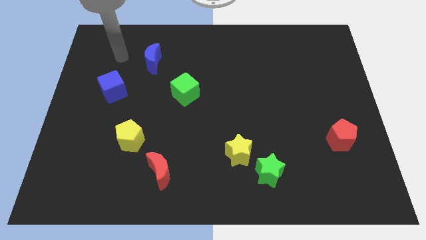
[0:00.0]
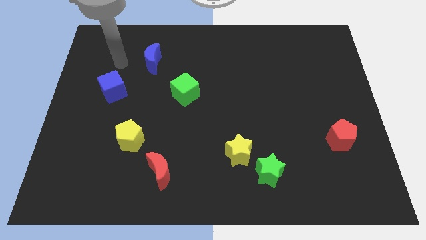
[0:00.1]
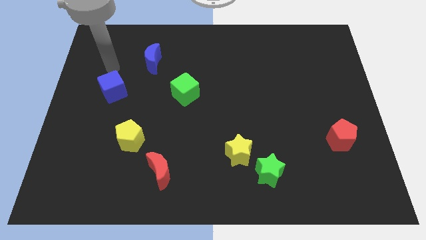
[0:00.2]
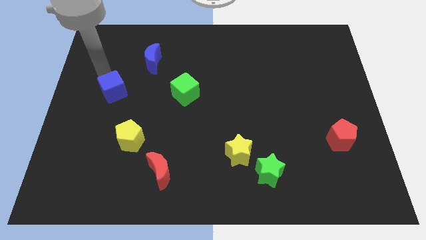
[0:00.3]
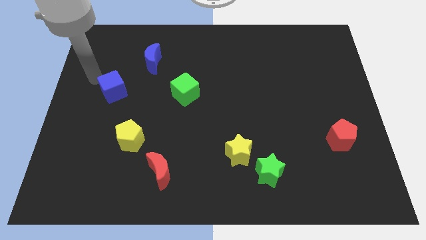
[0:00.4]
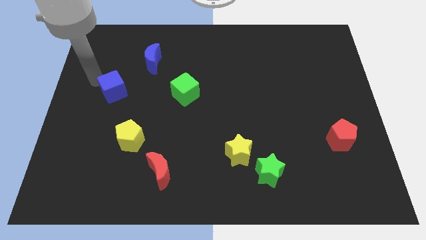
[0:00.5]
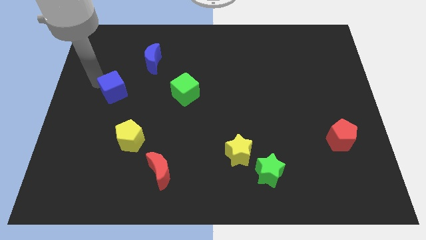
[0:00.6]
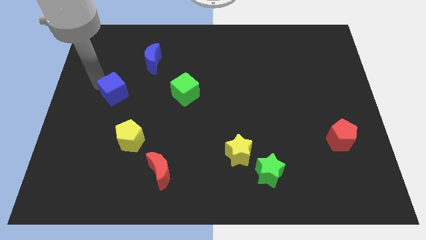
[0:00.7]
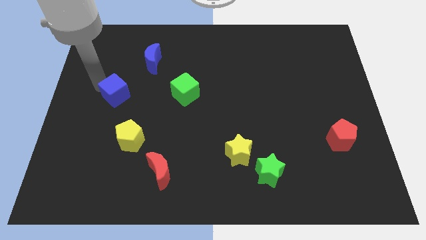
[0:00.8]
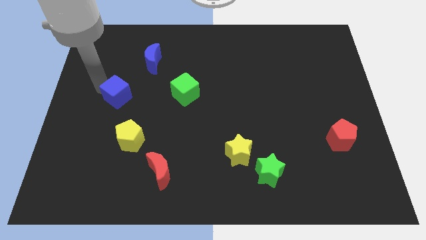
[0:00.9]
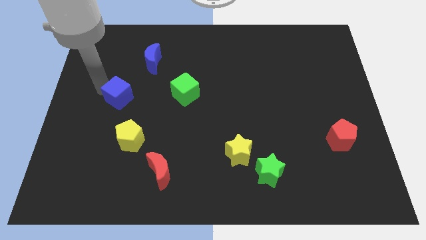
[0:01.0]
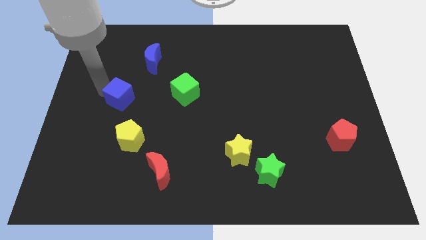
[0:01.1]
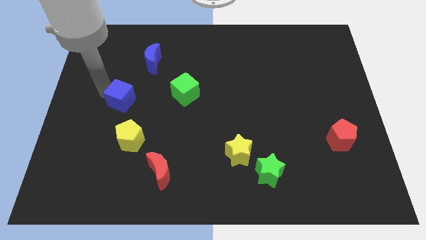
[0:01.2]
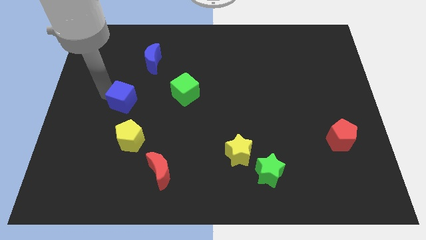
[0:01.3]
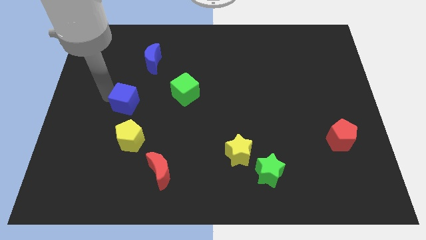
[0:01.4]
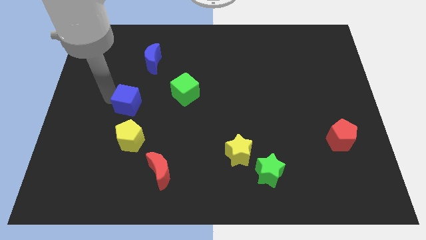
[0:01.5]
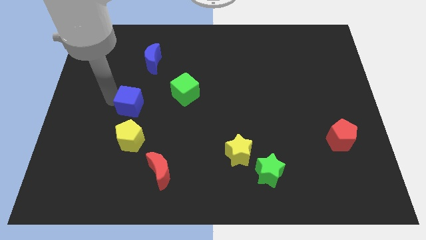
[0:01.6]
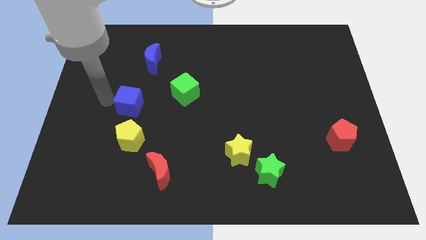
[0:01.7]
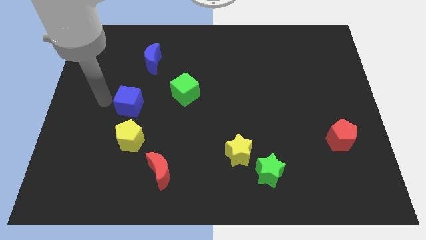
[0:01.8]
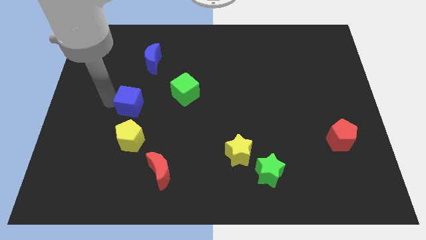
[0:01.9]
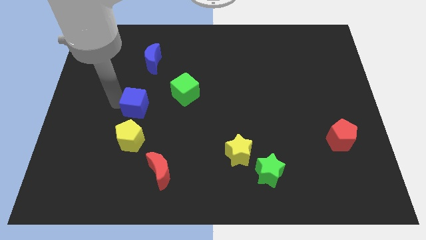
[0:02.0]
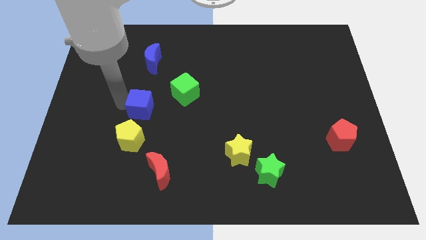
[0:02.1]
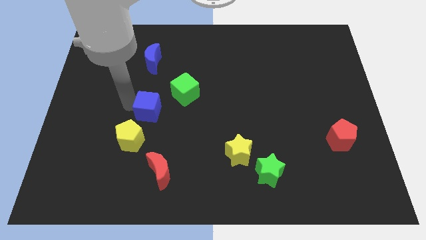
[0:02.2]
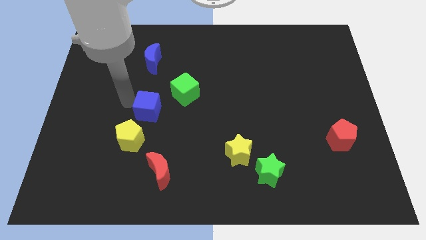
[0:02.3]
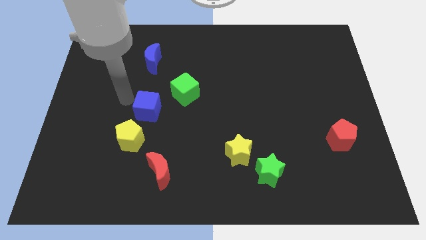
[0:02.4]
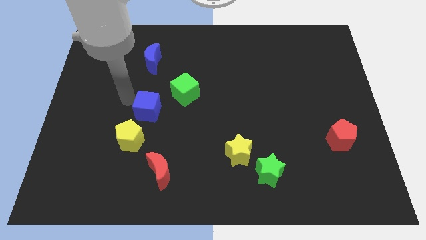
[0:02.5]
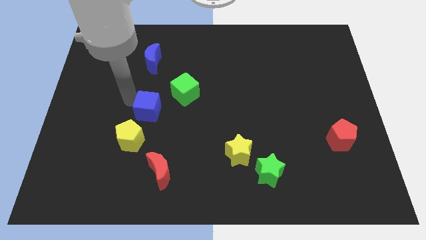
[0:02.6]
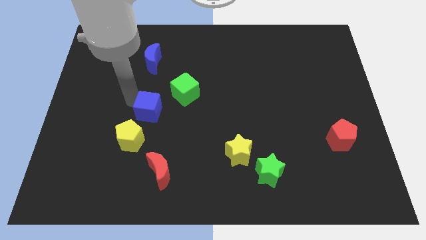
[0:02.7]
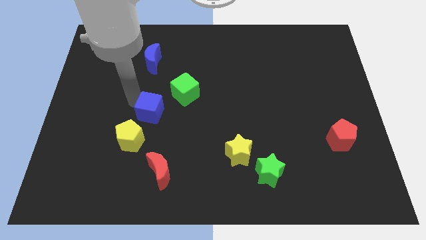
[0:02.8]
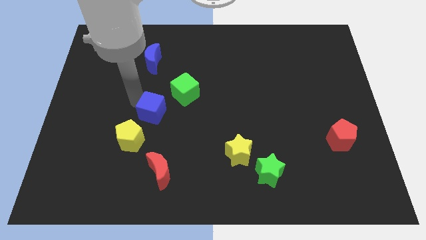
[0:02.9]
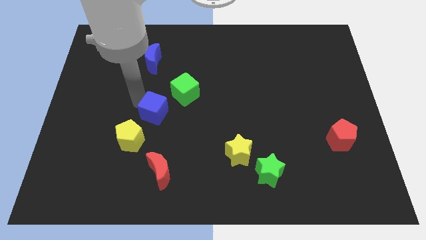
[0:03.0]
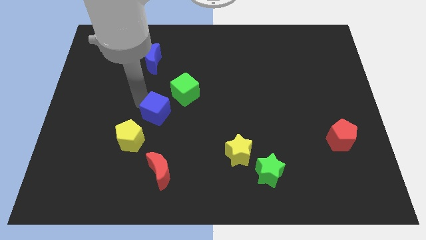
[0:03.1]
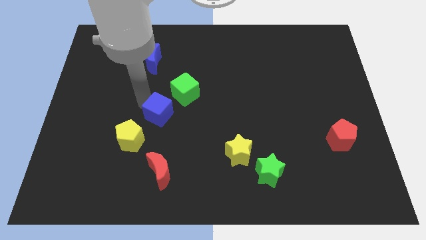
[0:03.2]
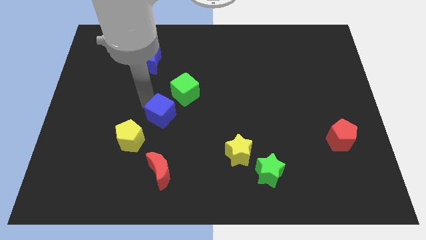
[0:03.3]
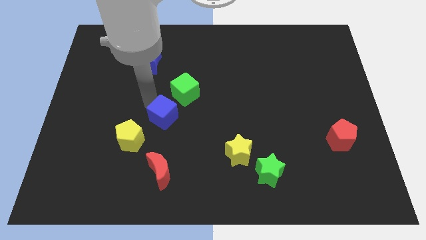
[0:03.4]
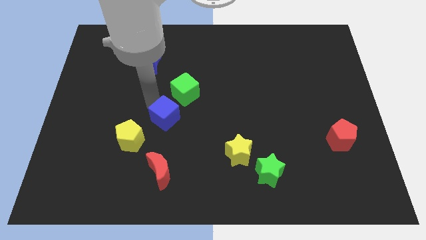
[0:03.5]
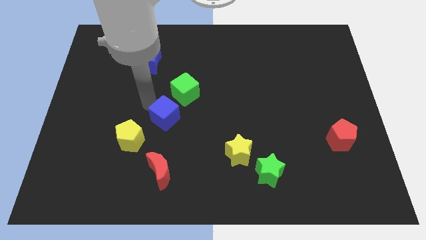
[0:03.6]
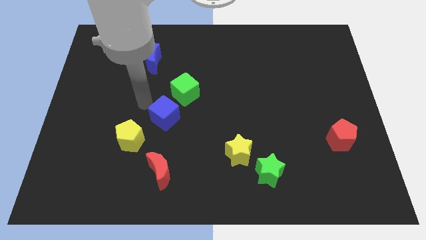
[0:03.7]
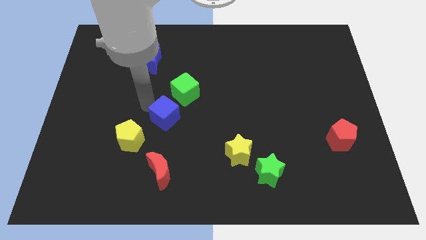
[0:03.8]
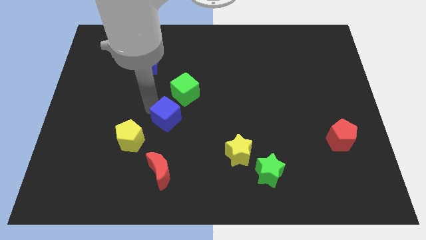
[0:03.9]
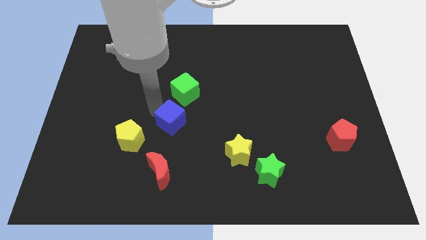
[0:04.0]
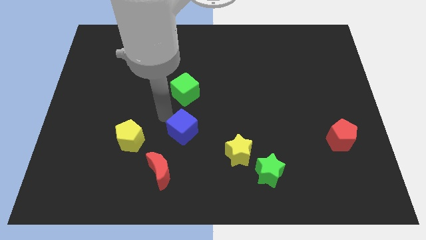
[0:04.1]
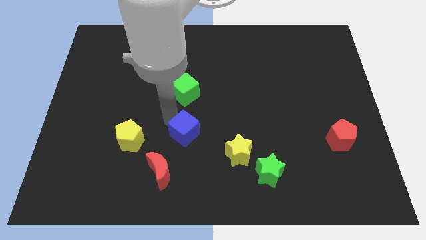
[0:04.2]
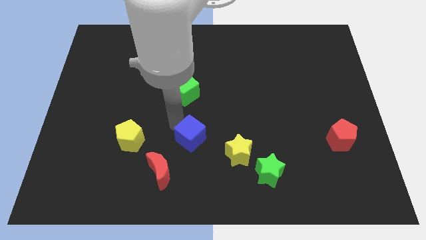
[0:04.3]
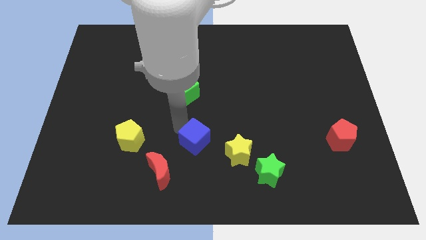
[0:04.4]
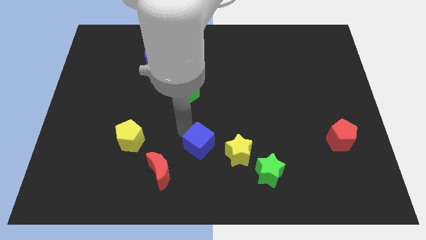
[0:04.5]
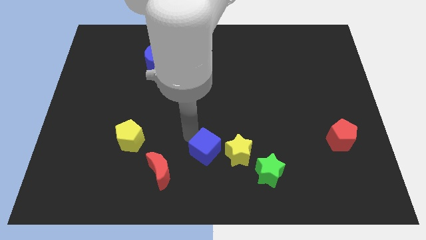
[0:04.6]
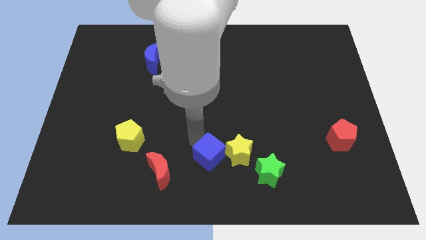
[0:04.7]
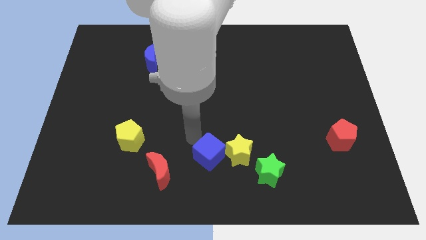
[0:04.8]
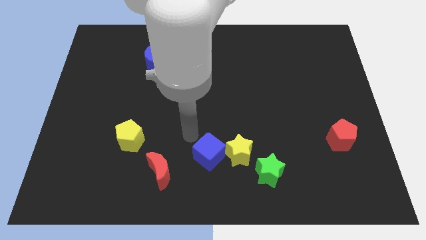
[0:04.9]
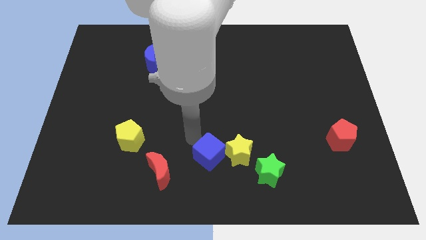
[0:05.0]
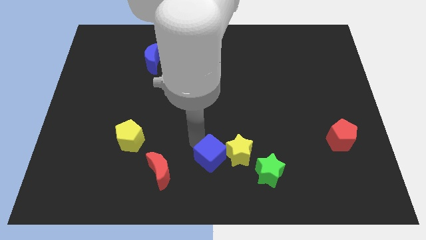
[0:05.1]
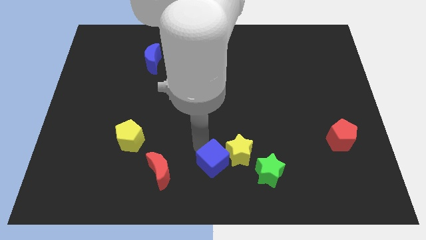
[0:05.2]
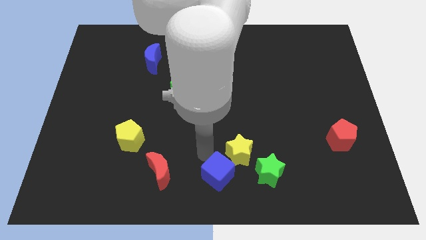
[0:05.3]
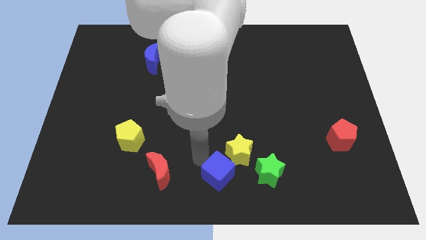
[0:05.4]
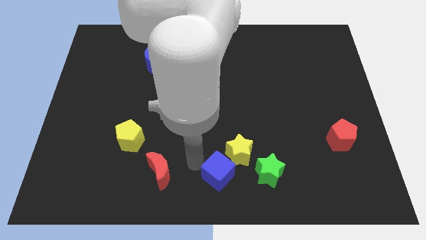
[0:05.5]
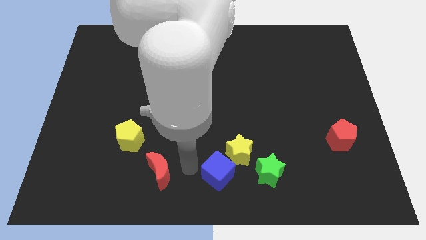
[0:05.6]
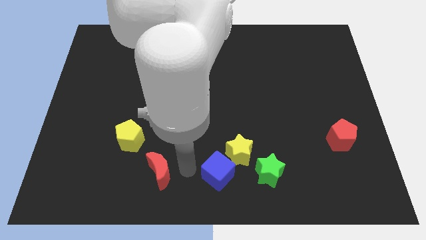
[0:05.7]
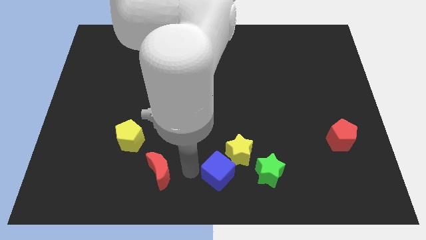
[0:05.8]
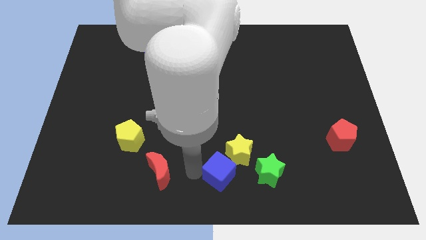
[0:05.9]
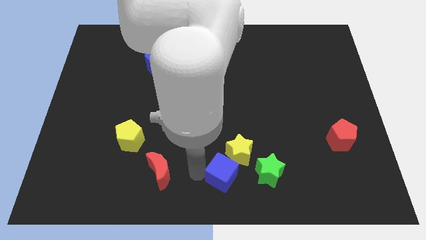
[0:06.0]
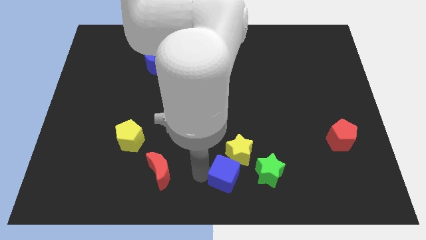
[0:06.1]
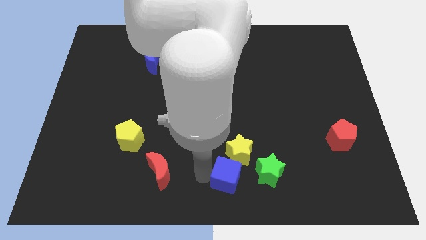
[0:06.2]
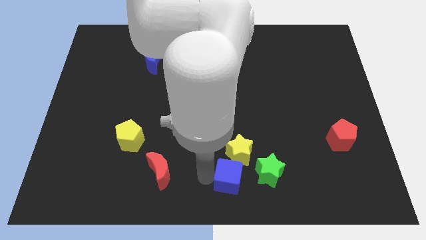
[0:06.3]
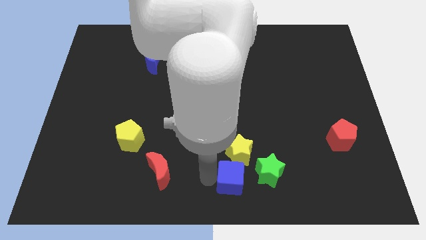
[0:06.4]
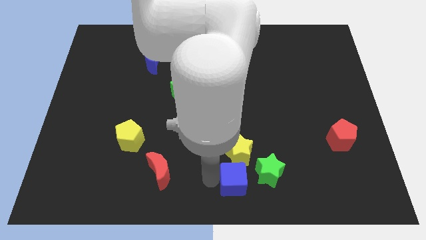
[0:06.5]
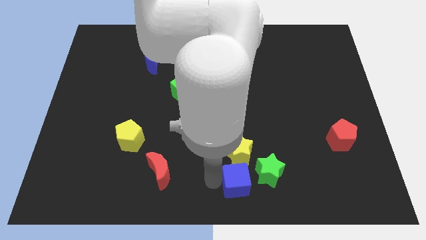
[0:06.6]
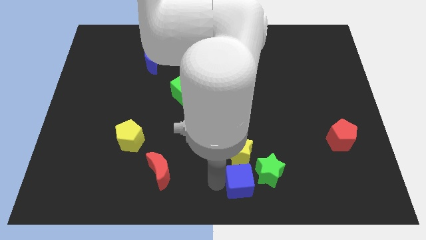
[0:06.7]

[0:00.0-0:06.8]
move the blue cube close to the green star

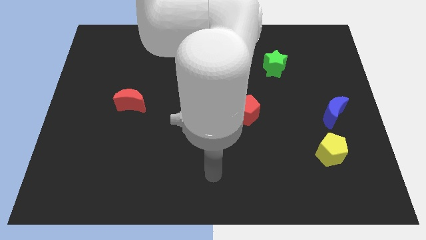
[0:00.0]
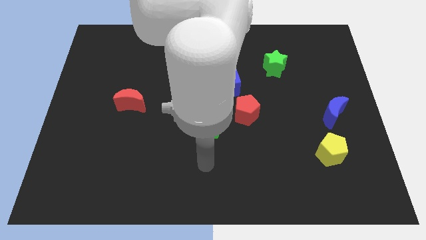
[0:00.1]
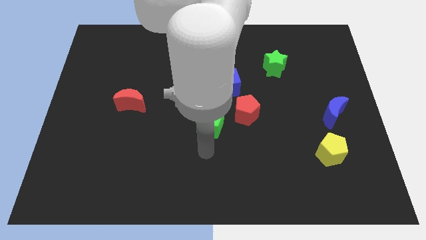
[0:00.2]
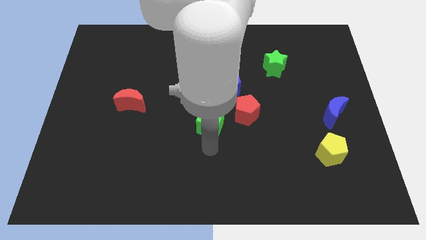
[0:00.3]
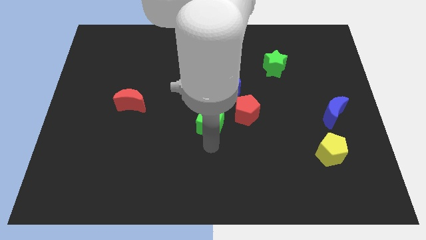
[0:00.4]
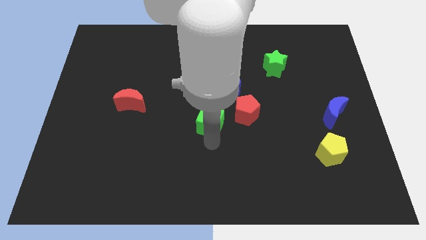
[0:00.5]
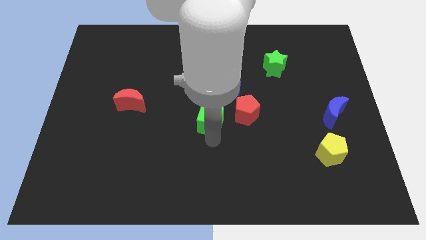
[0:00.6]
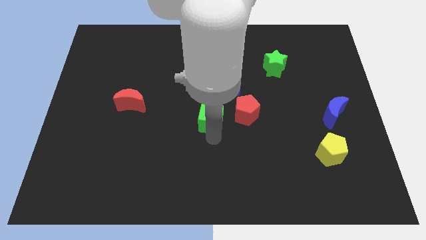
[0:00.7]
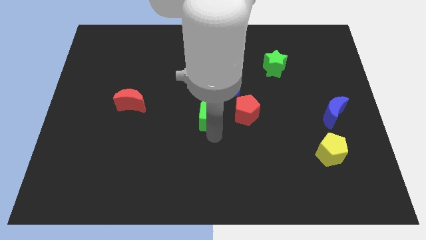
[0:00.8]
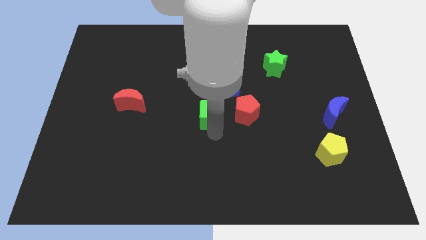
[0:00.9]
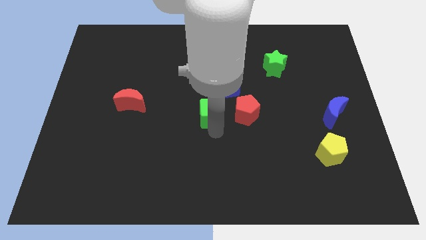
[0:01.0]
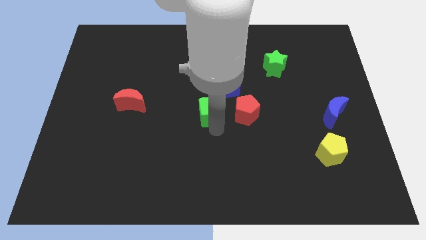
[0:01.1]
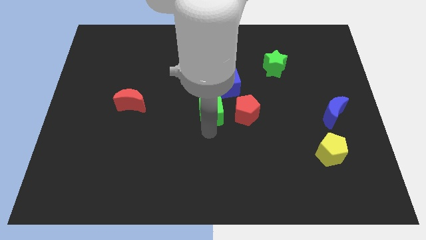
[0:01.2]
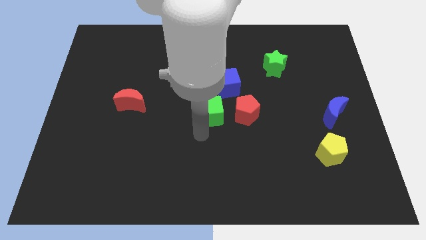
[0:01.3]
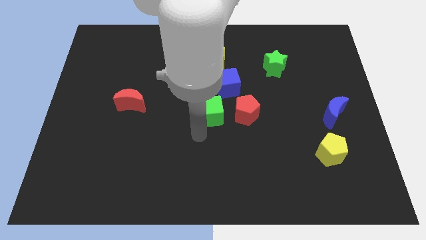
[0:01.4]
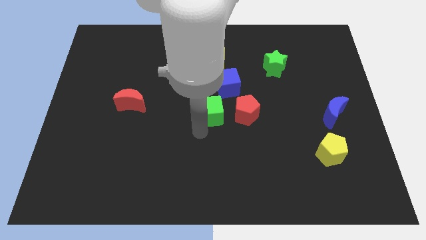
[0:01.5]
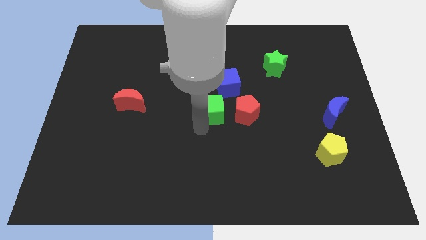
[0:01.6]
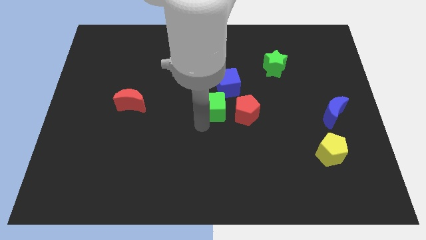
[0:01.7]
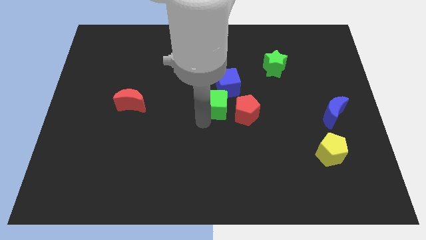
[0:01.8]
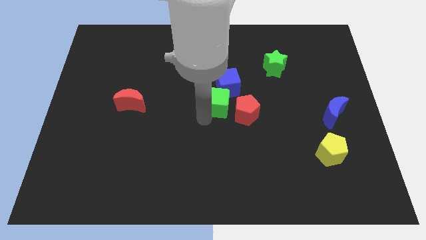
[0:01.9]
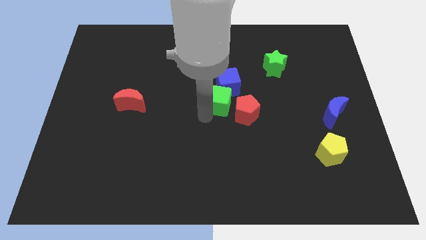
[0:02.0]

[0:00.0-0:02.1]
push the green cube towards the blue cube
